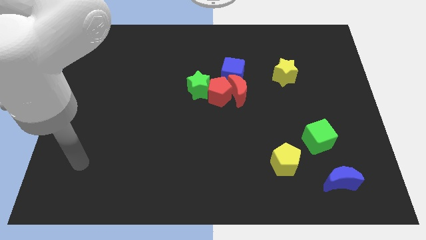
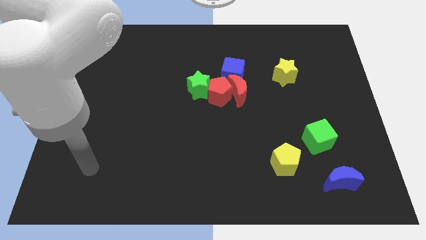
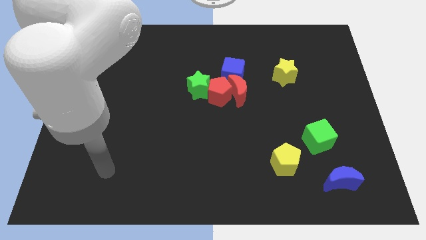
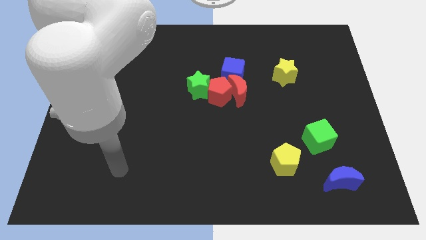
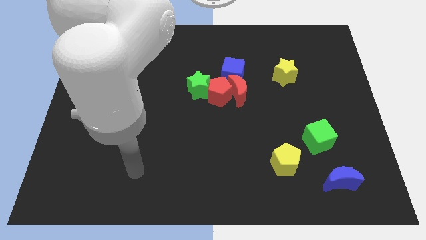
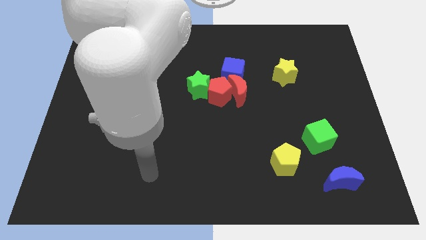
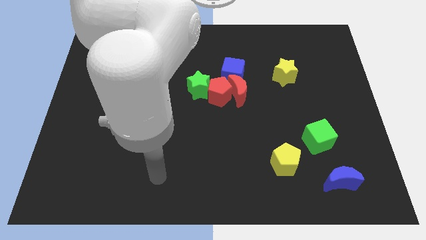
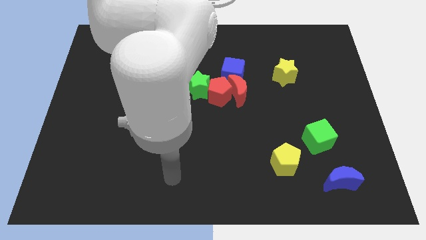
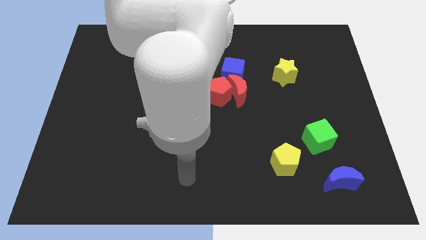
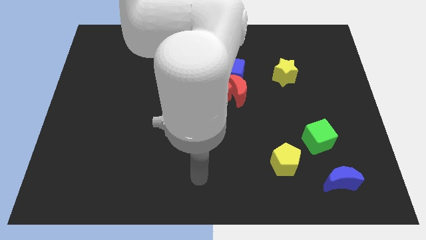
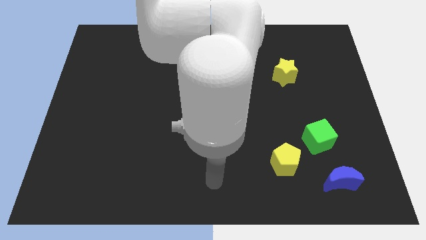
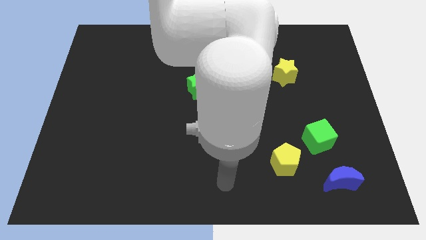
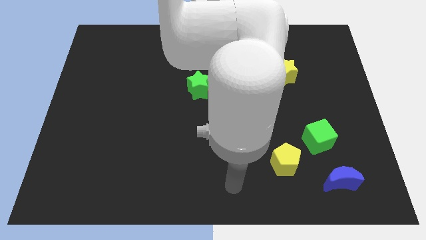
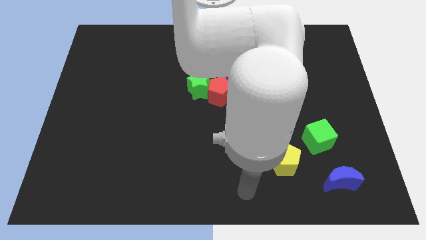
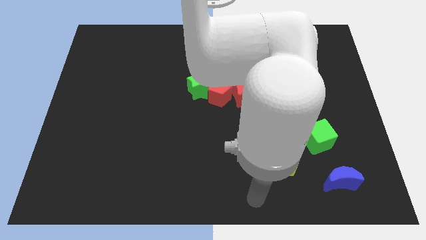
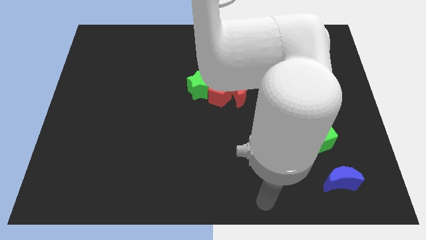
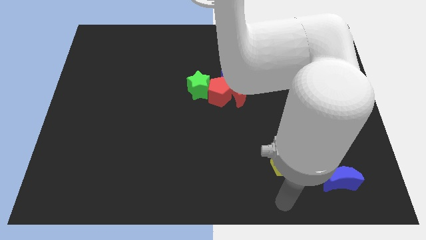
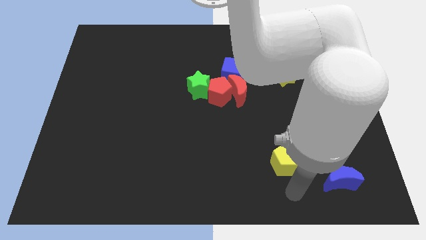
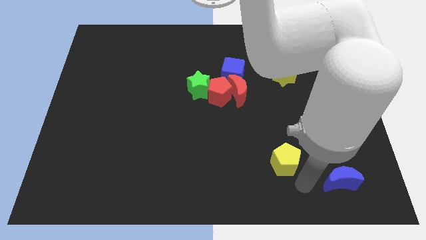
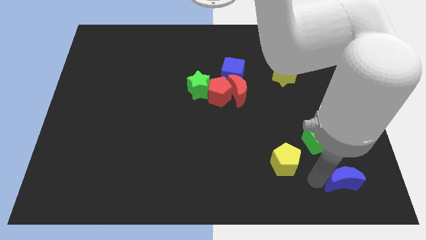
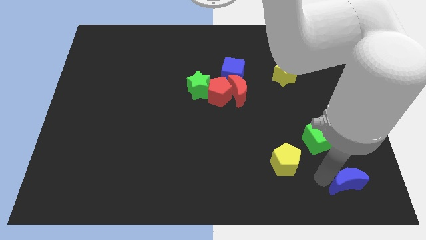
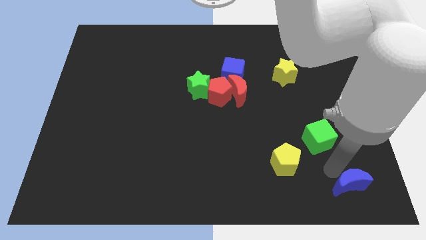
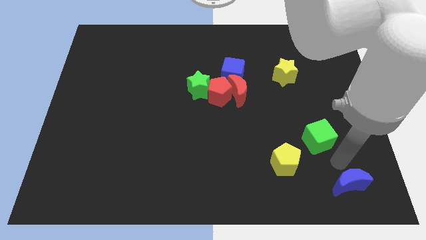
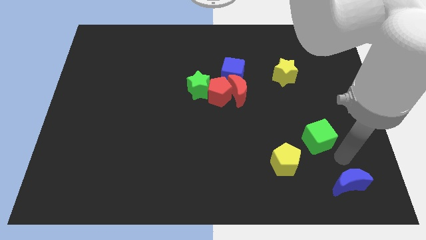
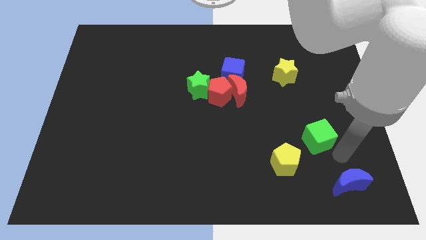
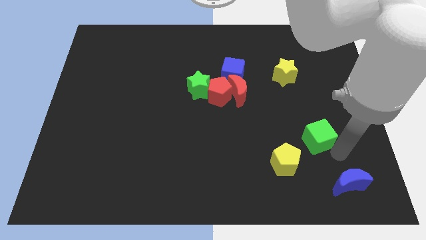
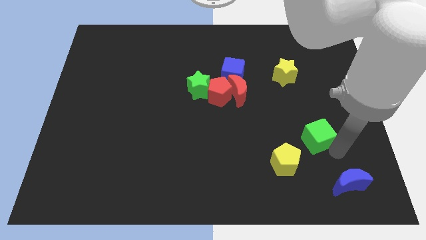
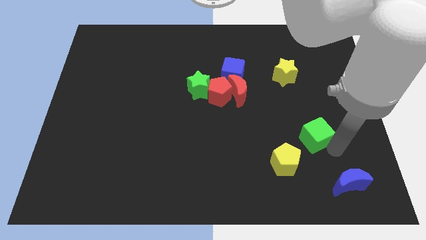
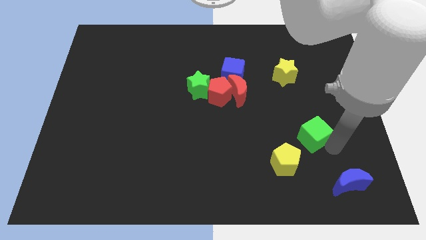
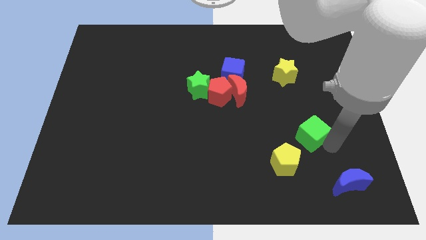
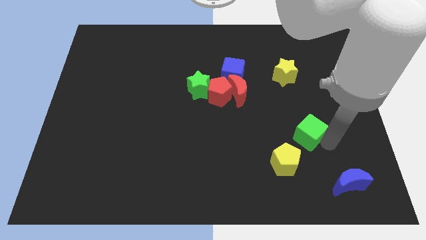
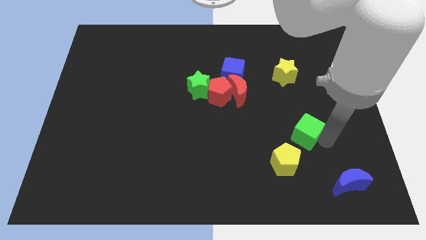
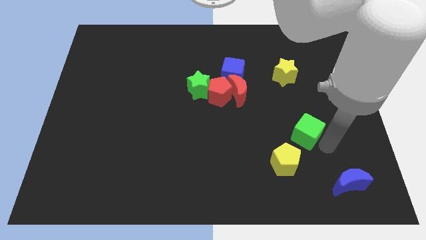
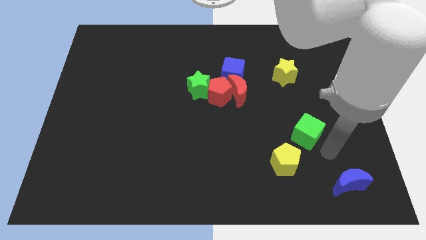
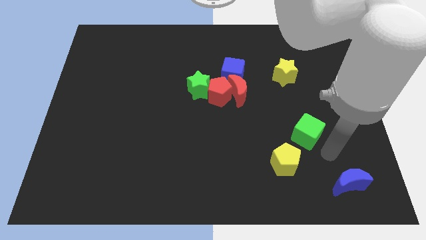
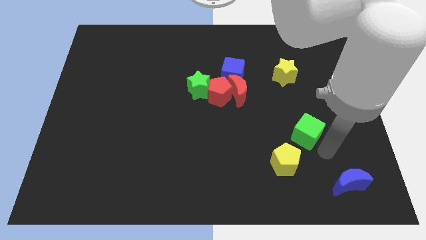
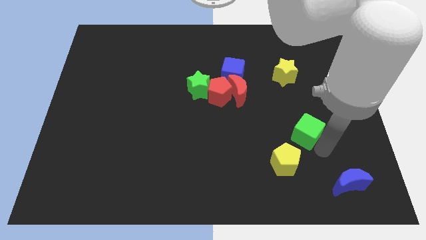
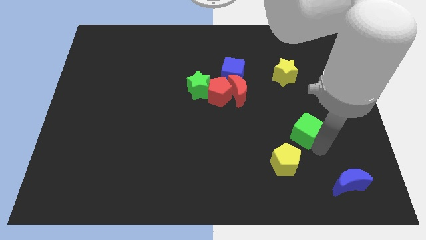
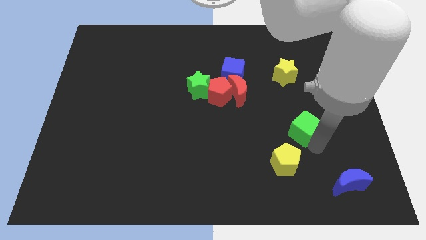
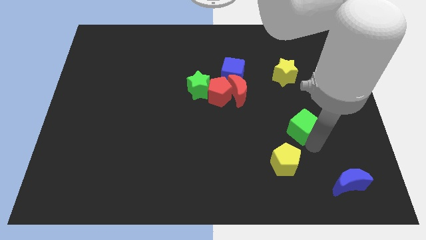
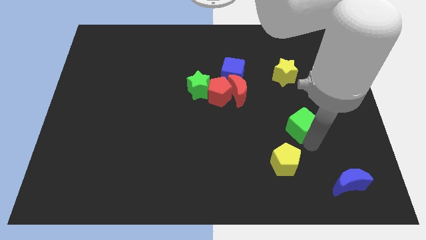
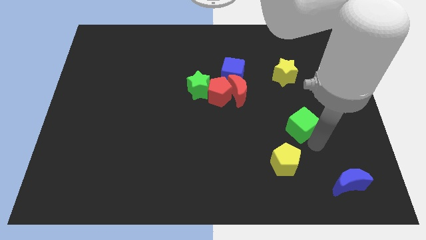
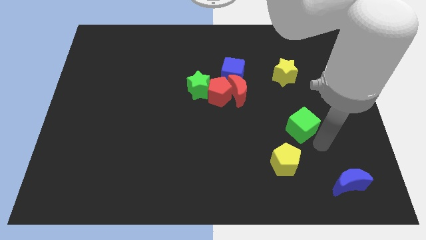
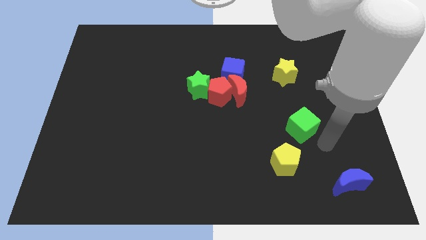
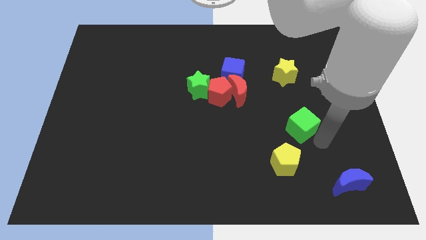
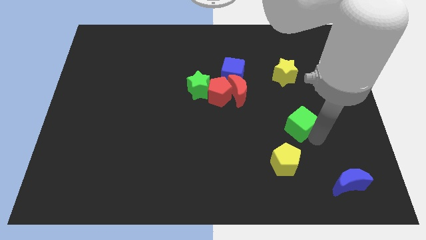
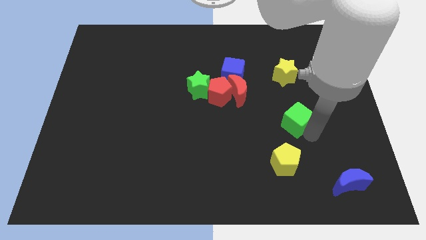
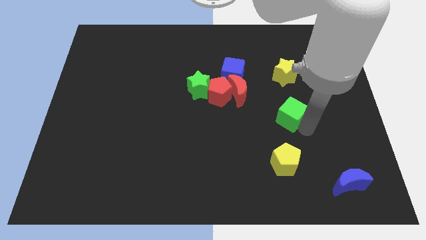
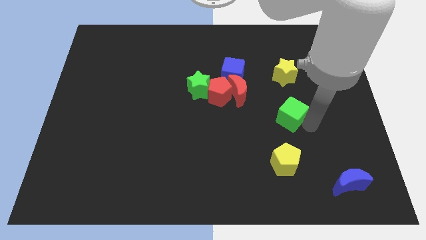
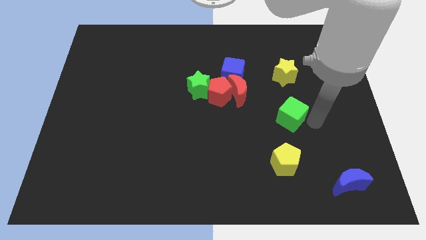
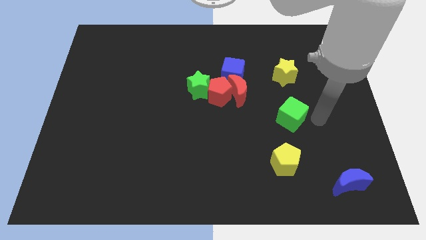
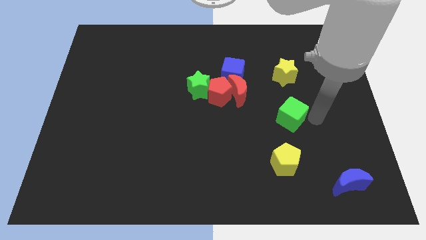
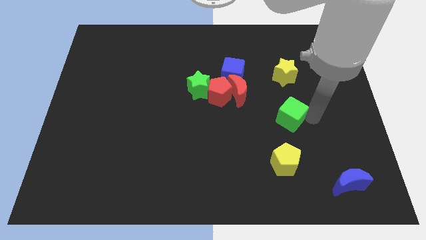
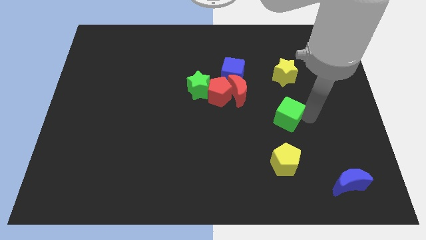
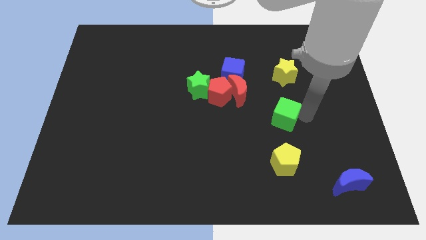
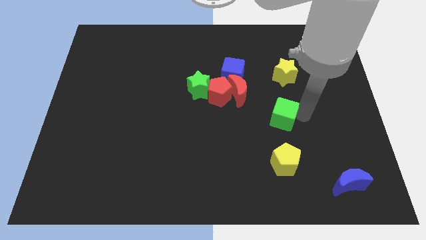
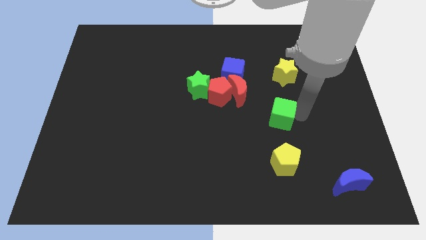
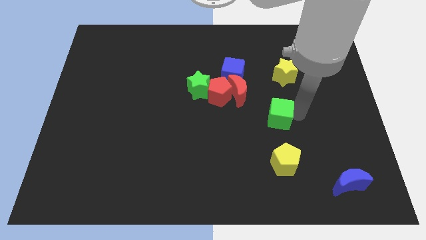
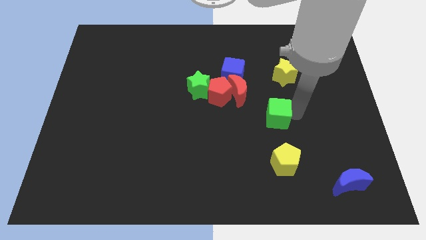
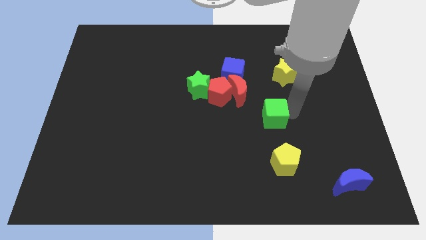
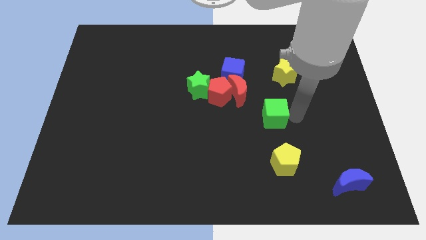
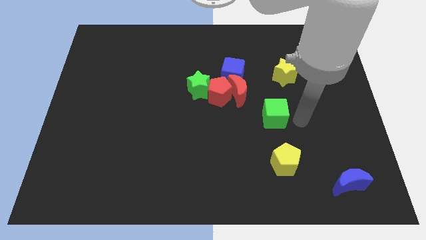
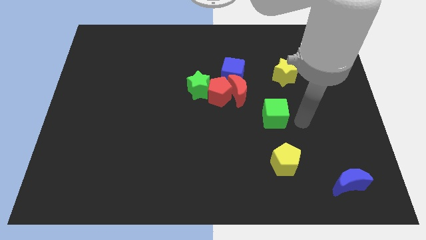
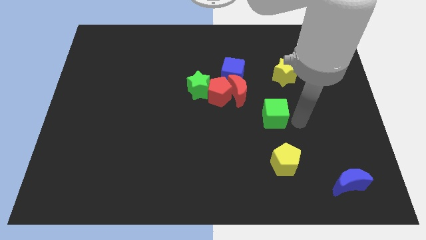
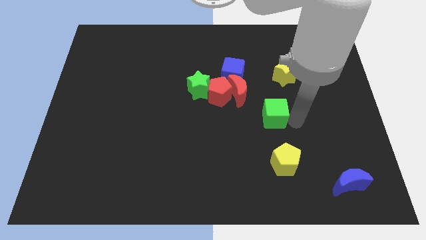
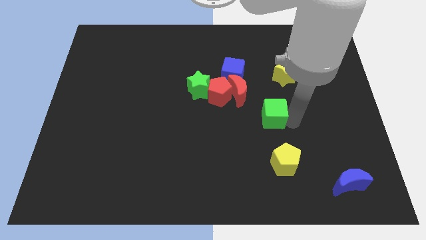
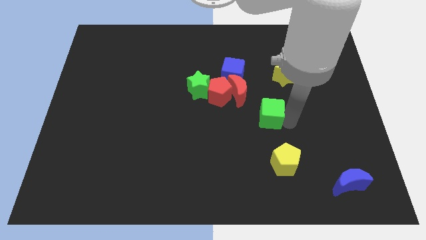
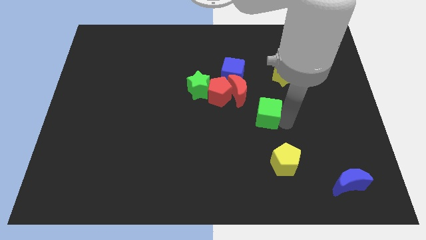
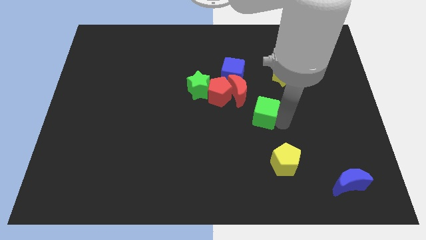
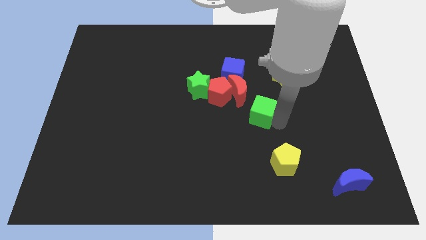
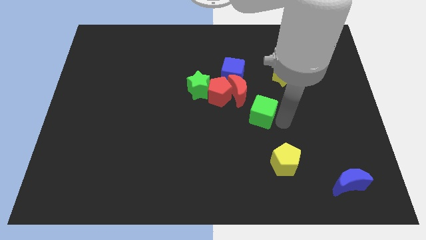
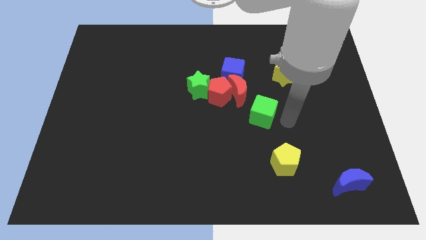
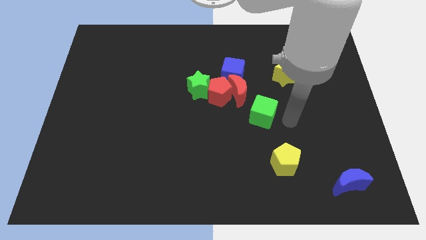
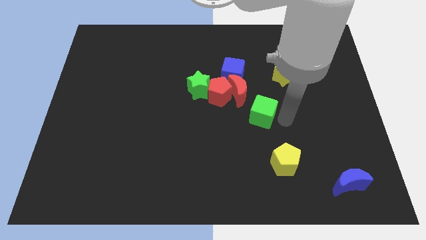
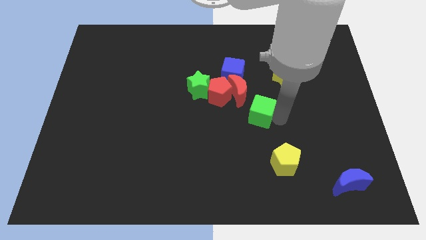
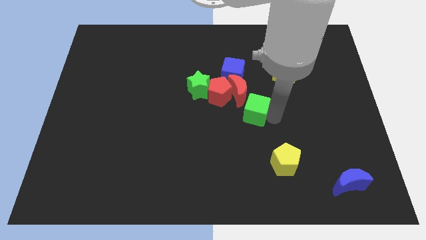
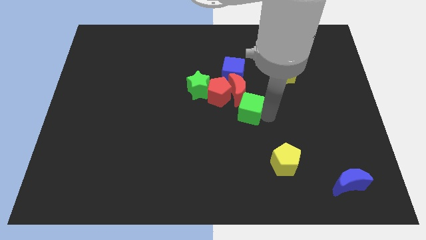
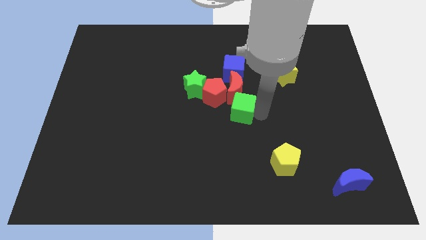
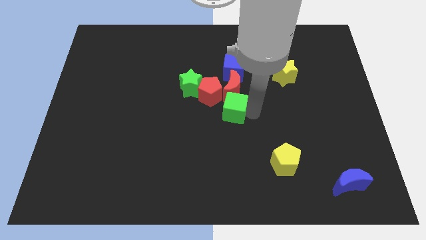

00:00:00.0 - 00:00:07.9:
put the green cube to the bottom right side of the green star
